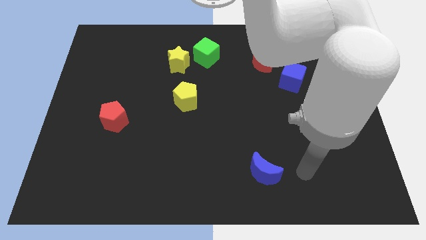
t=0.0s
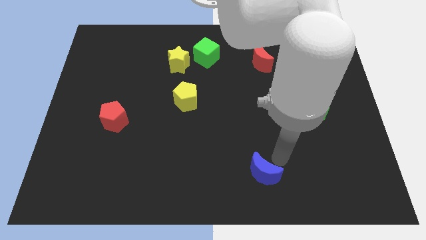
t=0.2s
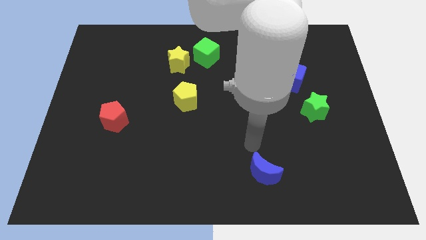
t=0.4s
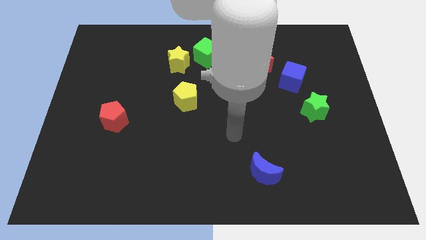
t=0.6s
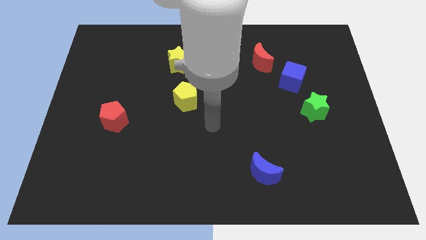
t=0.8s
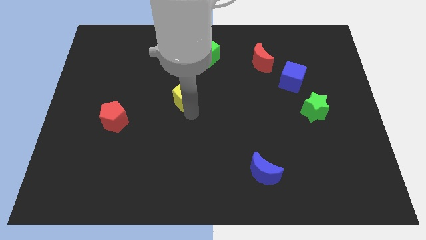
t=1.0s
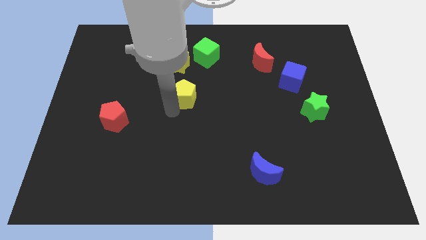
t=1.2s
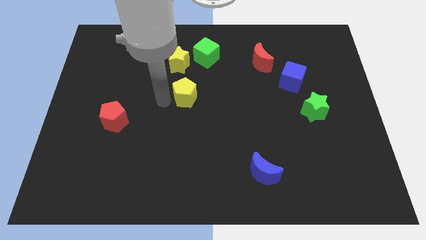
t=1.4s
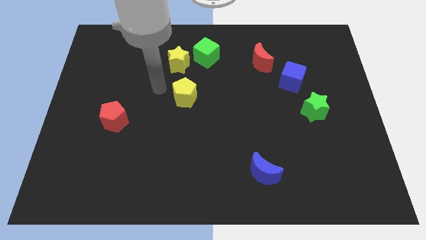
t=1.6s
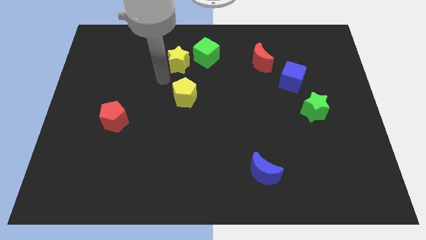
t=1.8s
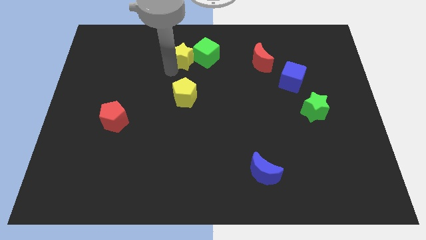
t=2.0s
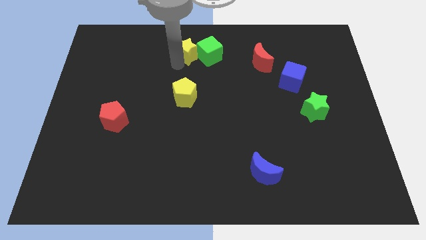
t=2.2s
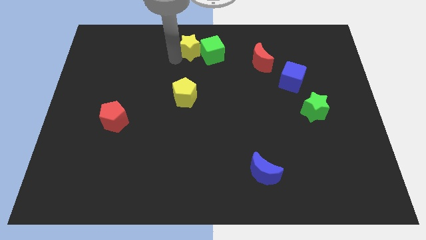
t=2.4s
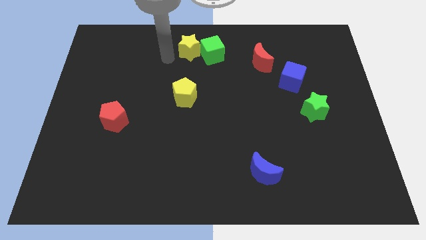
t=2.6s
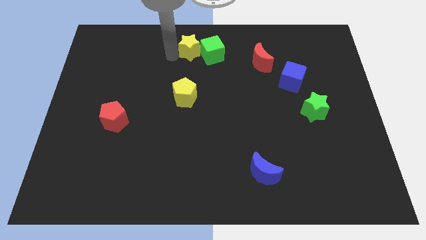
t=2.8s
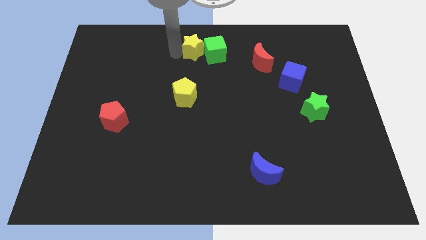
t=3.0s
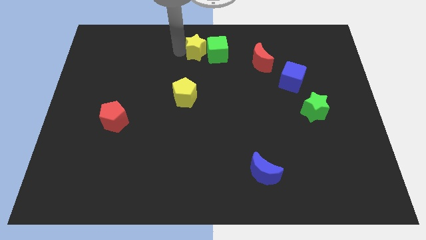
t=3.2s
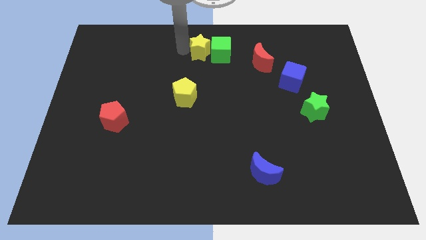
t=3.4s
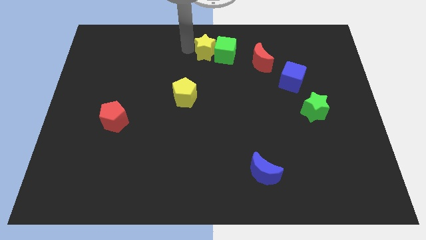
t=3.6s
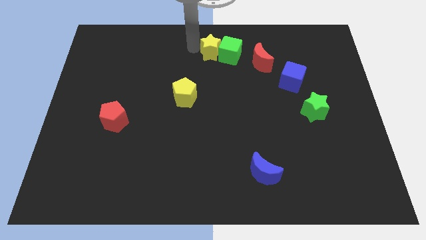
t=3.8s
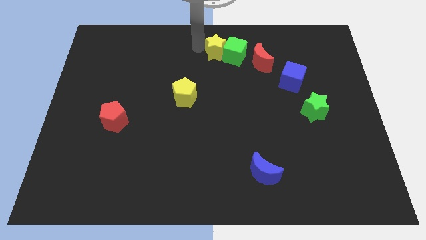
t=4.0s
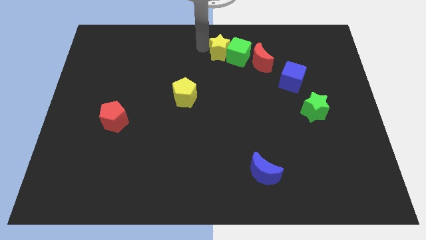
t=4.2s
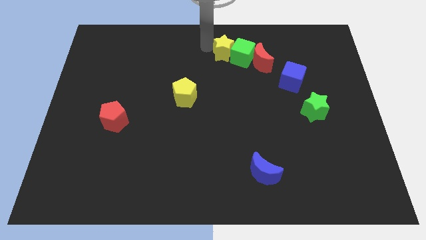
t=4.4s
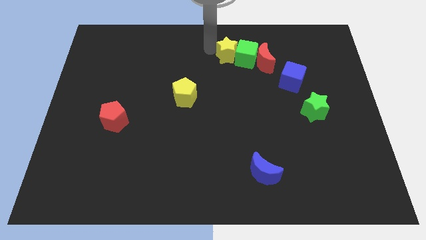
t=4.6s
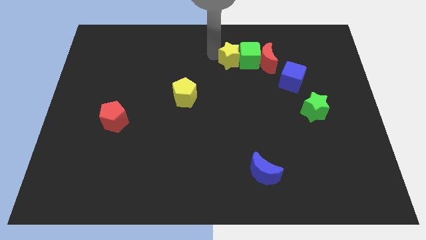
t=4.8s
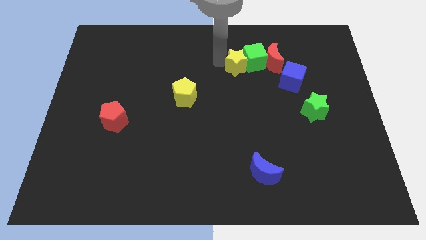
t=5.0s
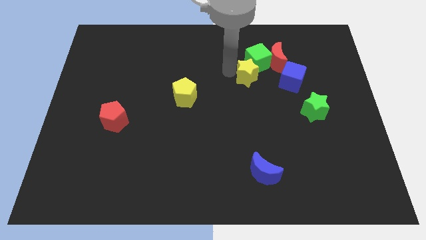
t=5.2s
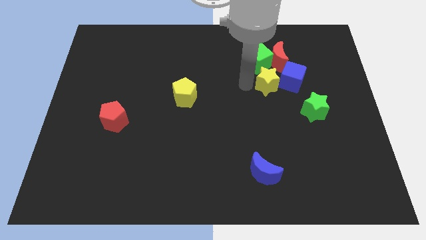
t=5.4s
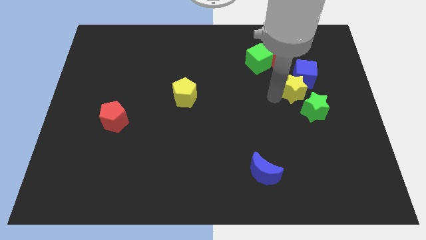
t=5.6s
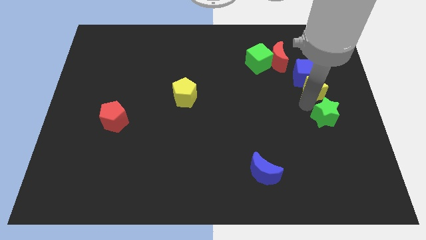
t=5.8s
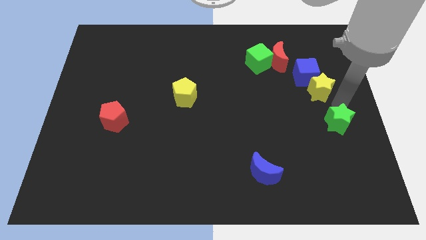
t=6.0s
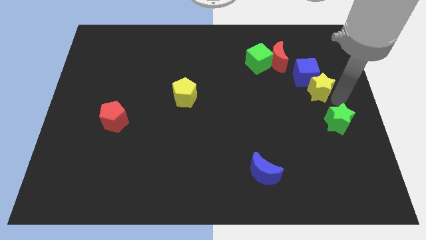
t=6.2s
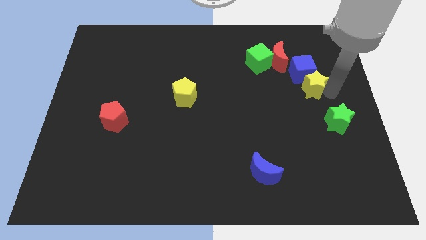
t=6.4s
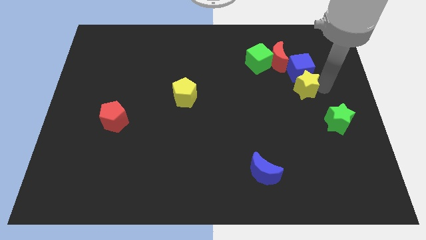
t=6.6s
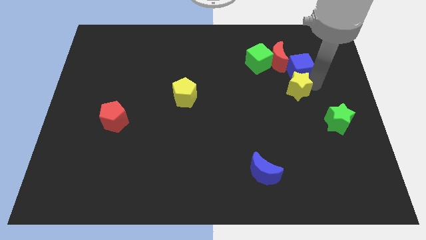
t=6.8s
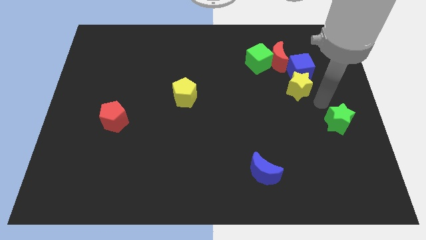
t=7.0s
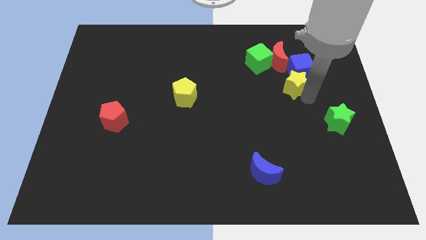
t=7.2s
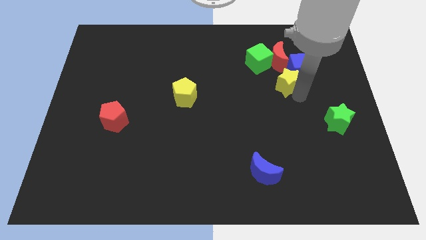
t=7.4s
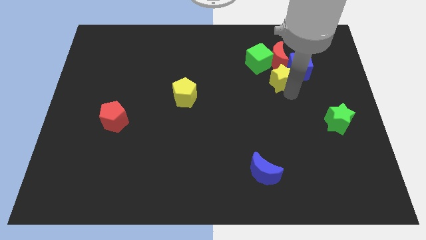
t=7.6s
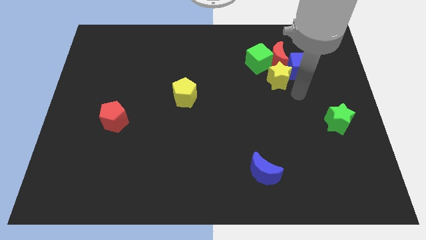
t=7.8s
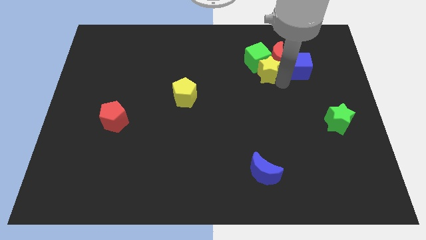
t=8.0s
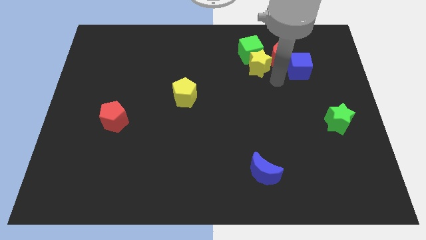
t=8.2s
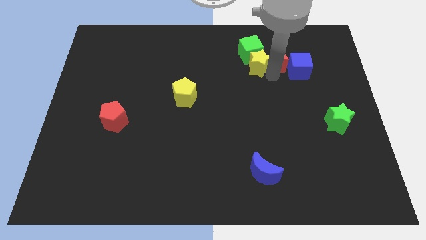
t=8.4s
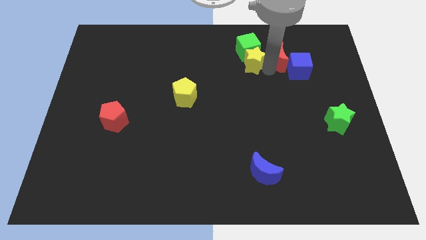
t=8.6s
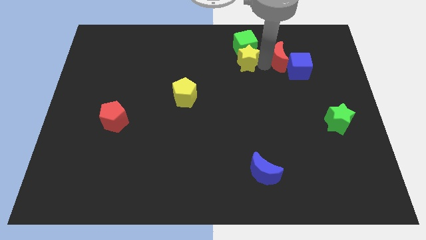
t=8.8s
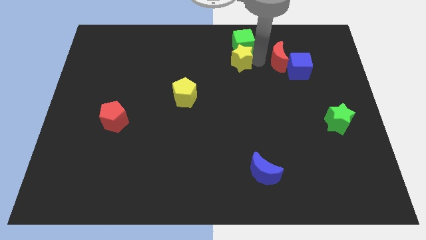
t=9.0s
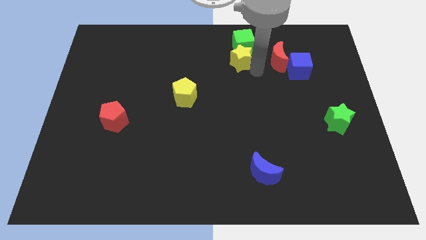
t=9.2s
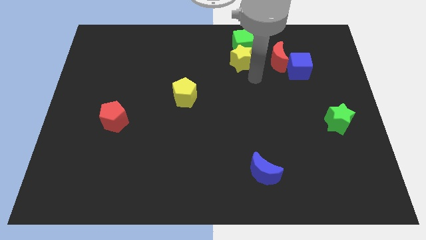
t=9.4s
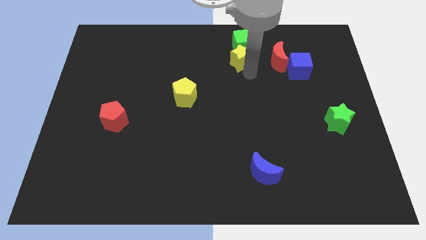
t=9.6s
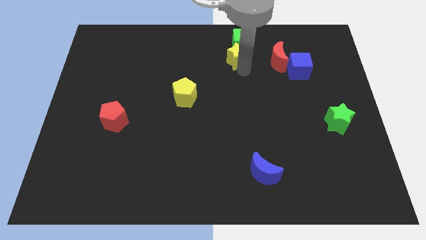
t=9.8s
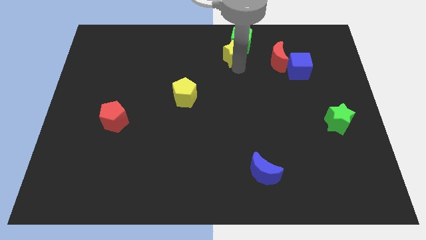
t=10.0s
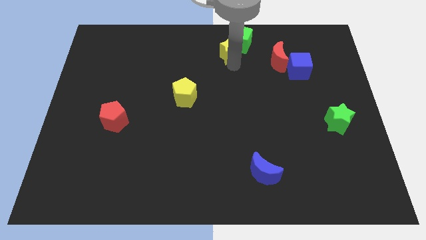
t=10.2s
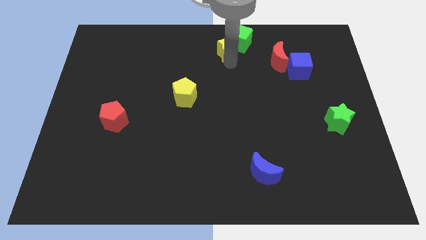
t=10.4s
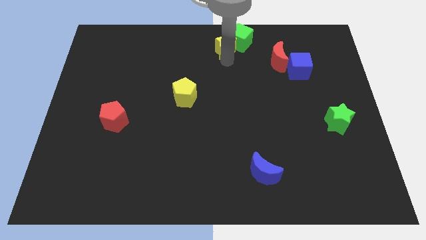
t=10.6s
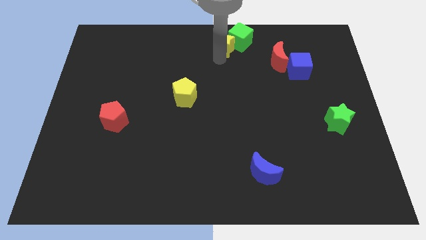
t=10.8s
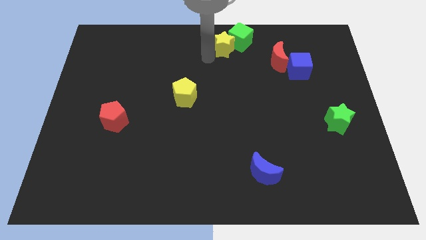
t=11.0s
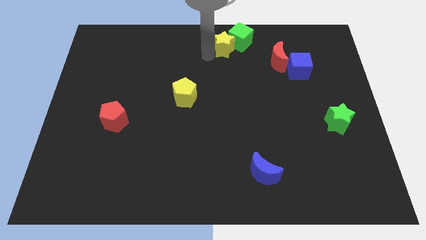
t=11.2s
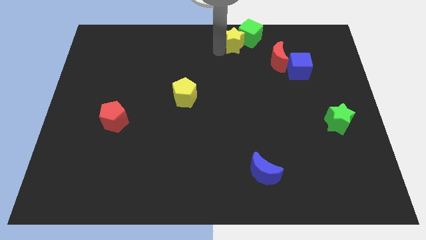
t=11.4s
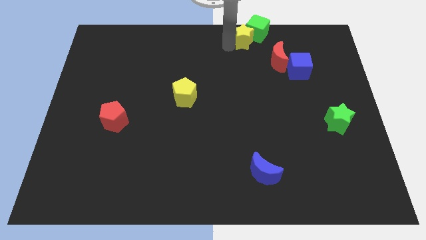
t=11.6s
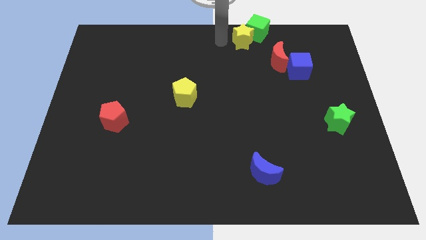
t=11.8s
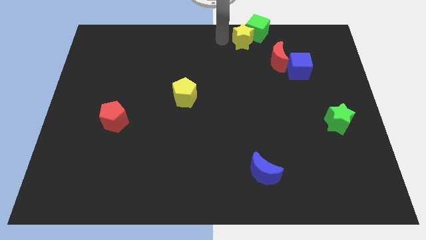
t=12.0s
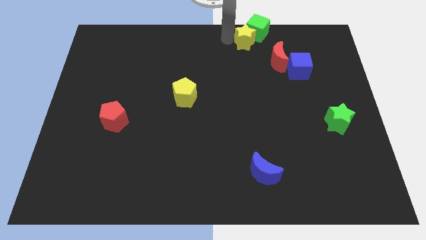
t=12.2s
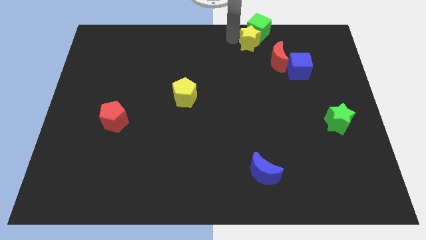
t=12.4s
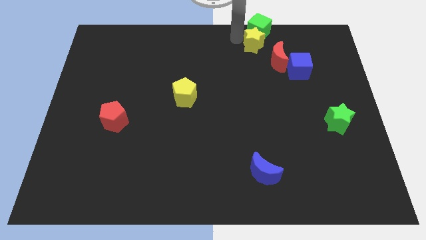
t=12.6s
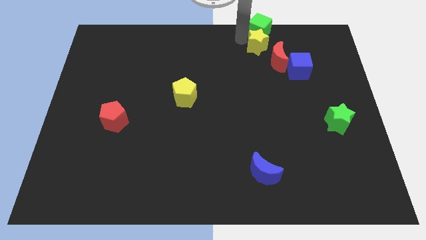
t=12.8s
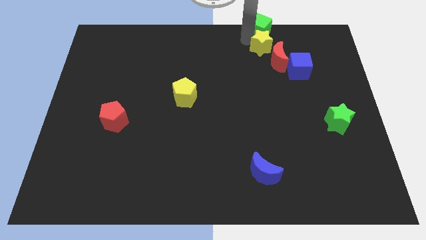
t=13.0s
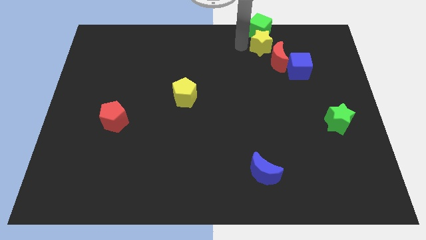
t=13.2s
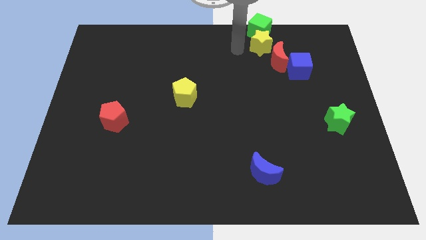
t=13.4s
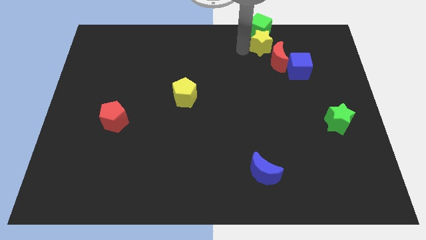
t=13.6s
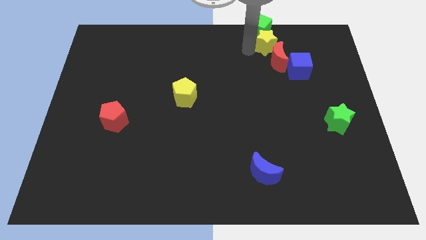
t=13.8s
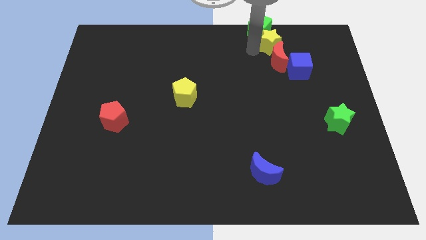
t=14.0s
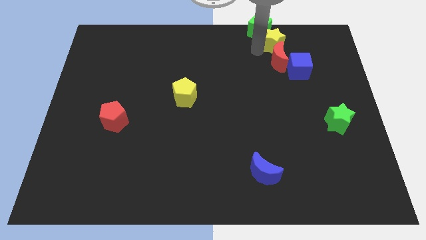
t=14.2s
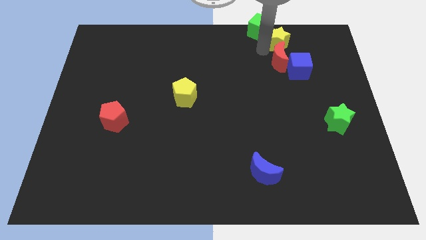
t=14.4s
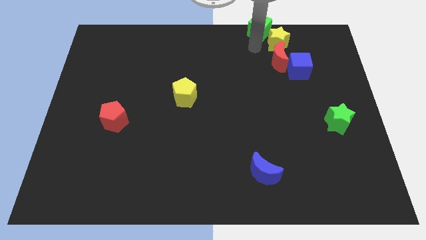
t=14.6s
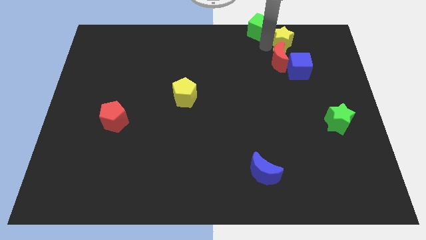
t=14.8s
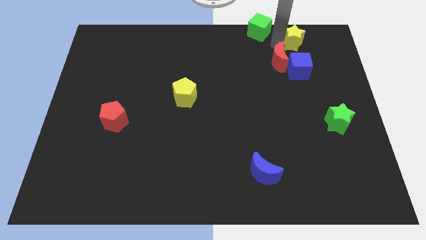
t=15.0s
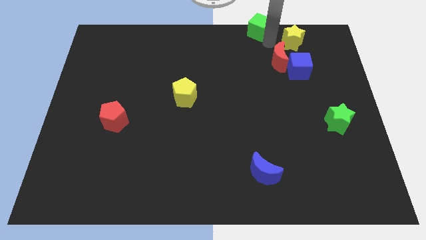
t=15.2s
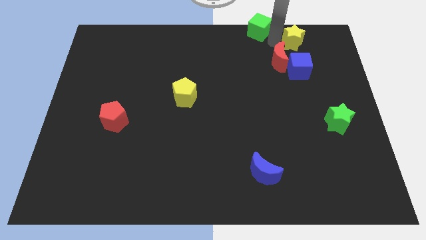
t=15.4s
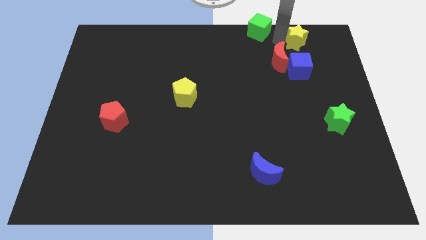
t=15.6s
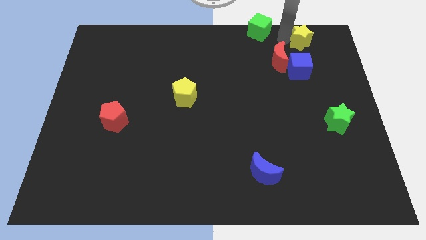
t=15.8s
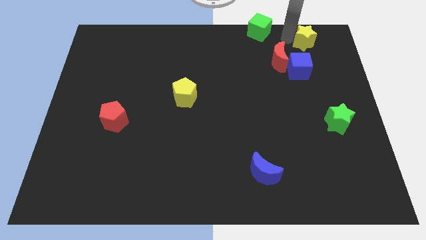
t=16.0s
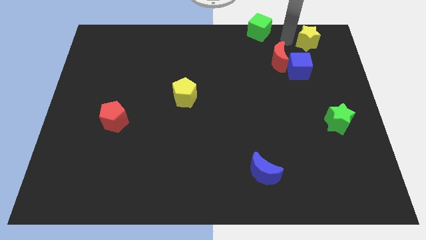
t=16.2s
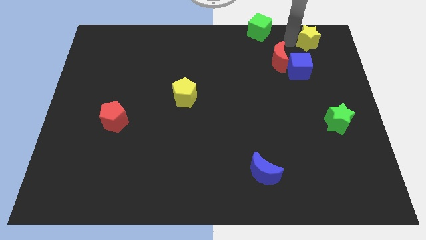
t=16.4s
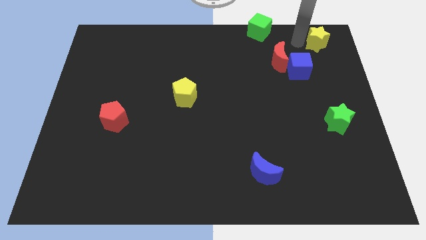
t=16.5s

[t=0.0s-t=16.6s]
push the yellow star to the top right
